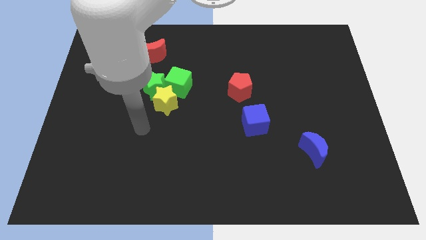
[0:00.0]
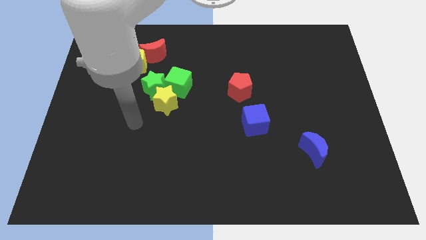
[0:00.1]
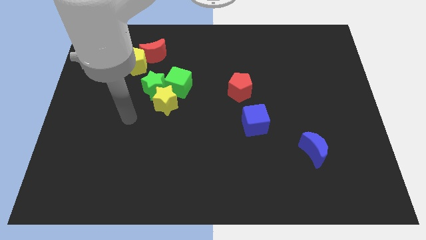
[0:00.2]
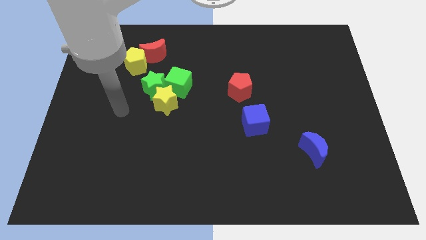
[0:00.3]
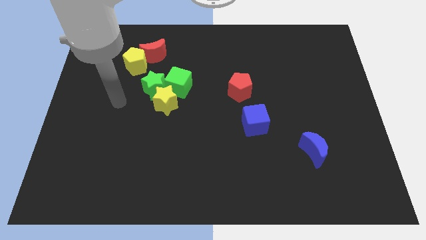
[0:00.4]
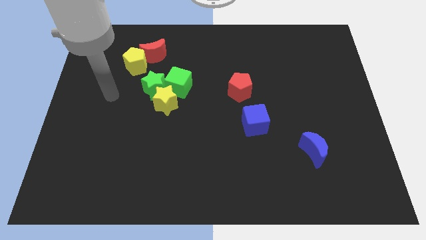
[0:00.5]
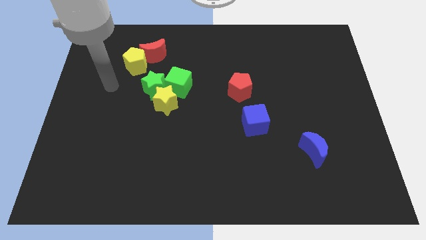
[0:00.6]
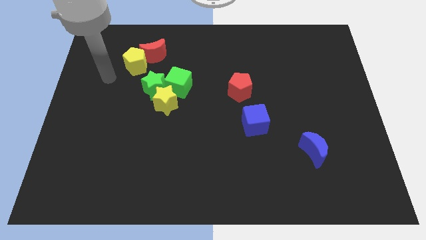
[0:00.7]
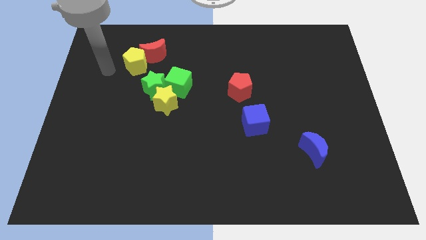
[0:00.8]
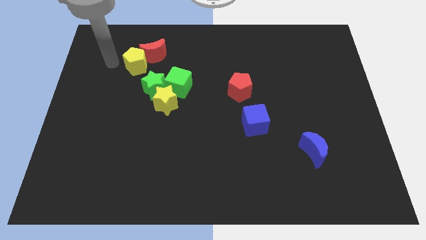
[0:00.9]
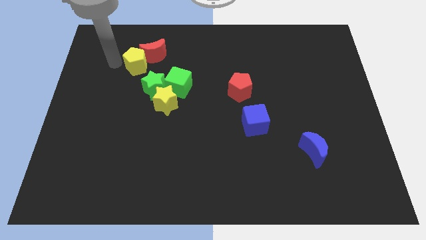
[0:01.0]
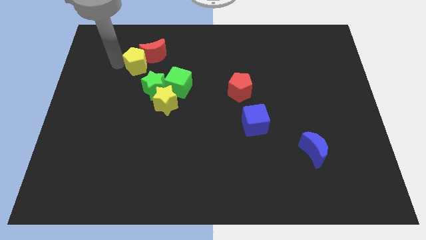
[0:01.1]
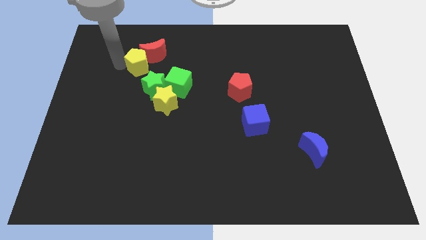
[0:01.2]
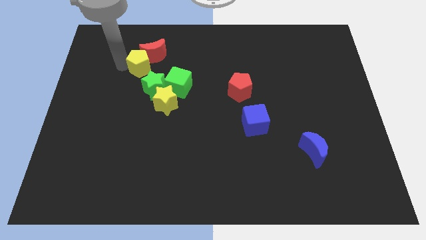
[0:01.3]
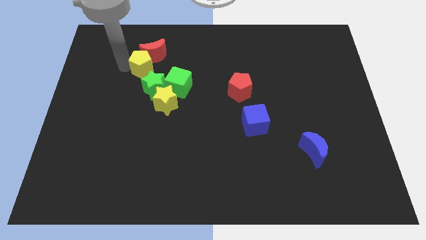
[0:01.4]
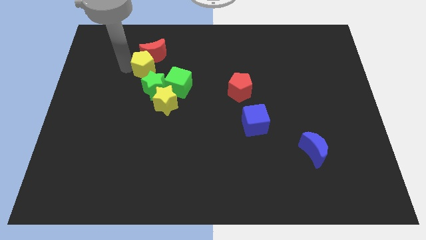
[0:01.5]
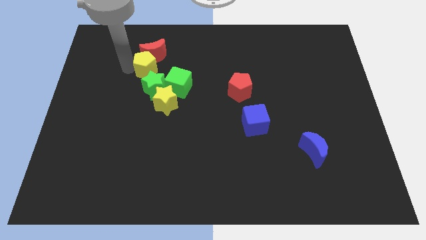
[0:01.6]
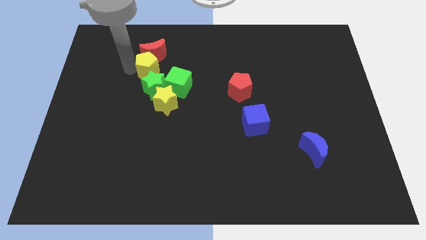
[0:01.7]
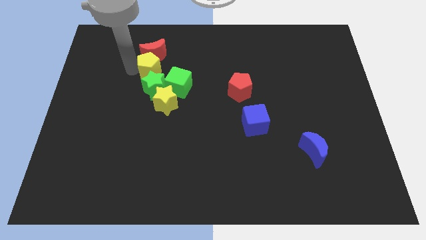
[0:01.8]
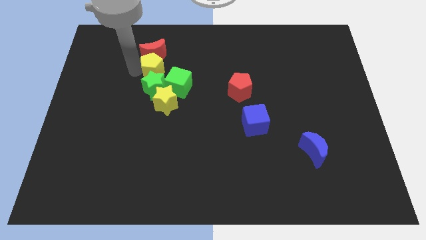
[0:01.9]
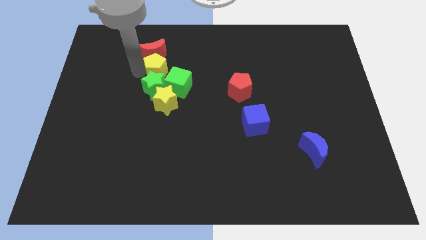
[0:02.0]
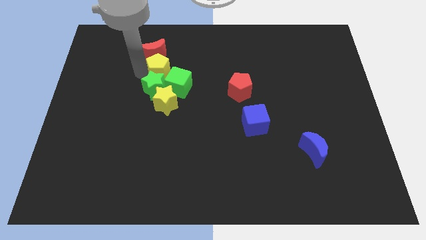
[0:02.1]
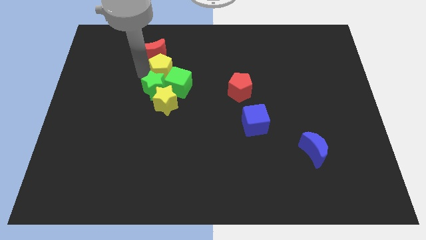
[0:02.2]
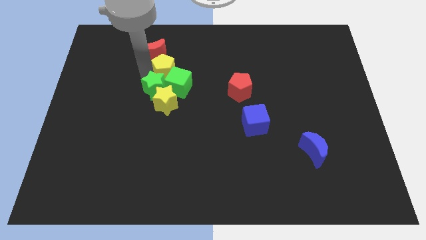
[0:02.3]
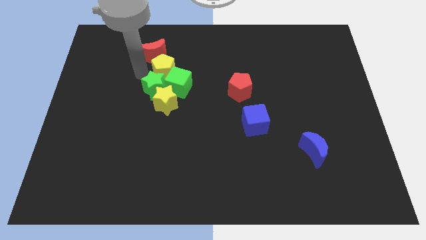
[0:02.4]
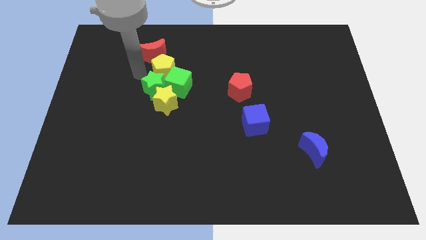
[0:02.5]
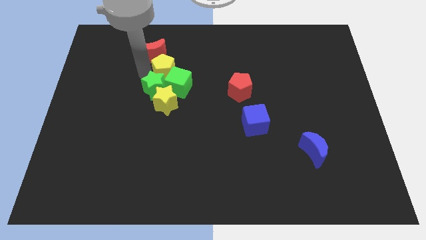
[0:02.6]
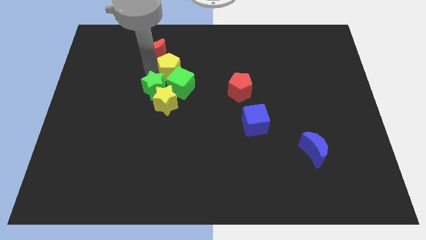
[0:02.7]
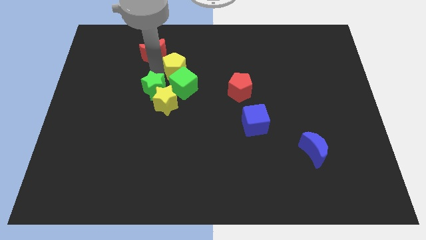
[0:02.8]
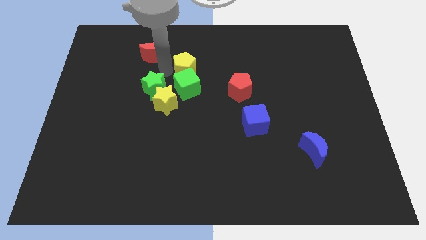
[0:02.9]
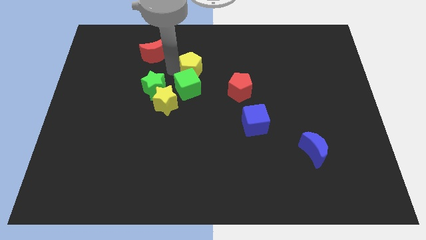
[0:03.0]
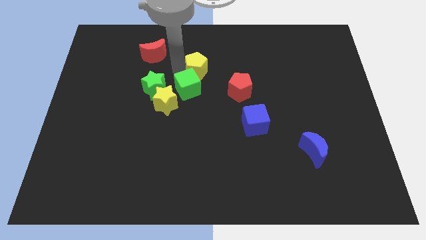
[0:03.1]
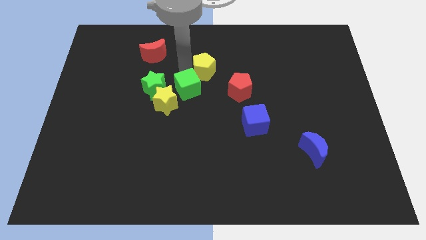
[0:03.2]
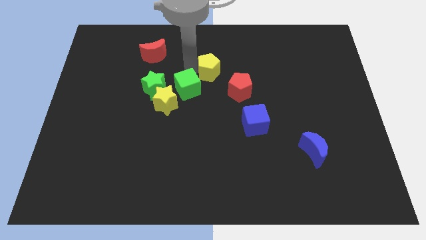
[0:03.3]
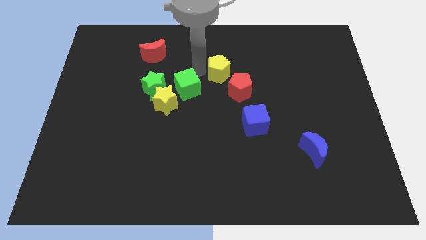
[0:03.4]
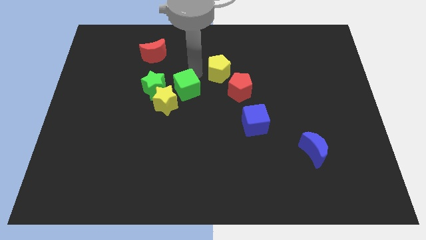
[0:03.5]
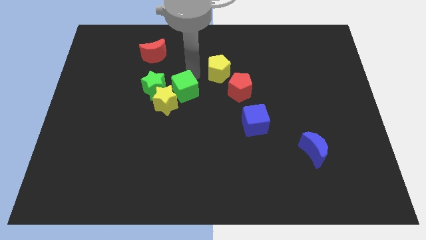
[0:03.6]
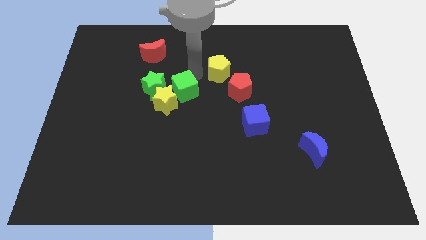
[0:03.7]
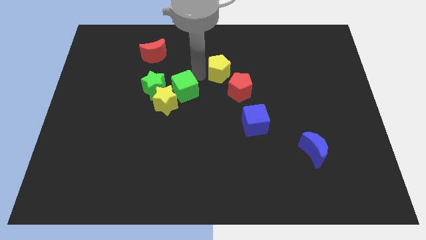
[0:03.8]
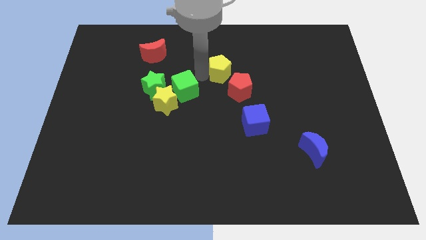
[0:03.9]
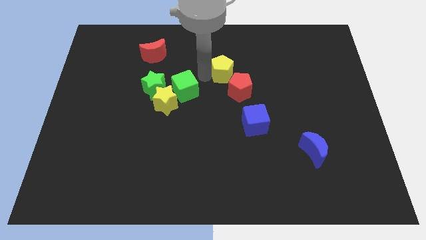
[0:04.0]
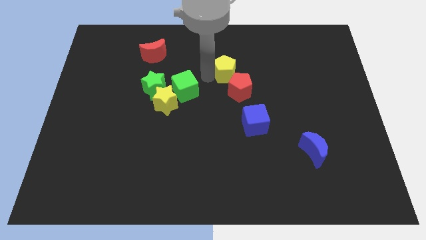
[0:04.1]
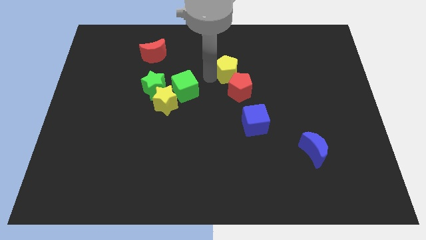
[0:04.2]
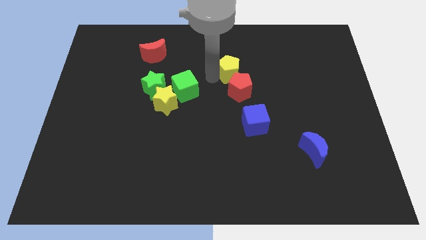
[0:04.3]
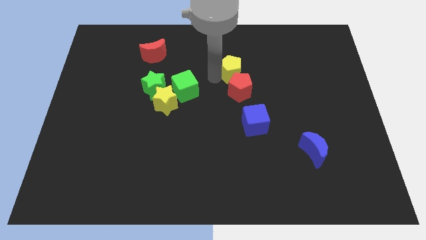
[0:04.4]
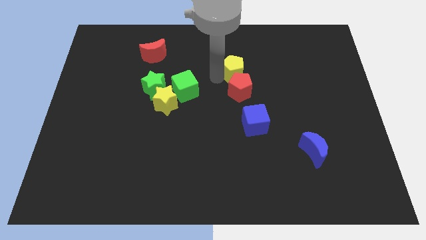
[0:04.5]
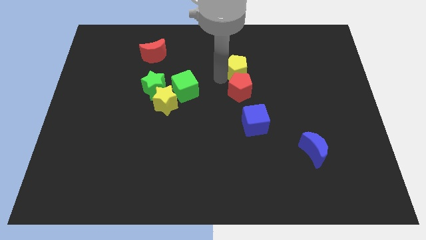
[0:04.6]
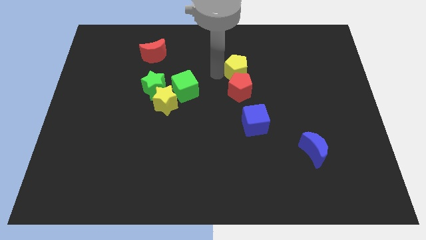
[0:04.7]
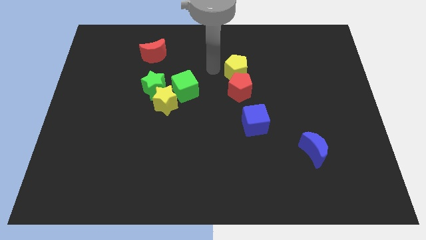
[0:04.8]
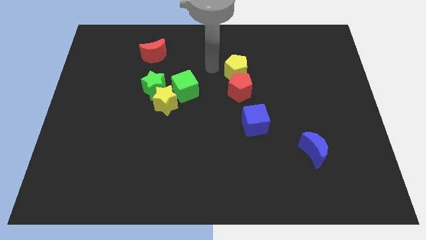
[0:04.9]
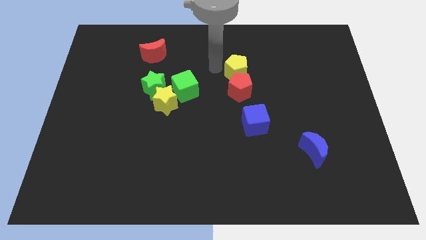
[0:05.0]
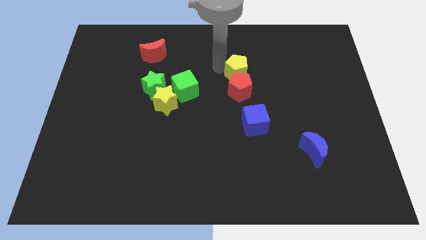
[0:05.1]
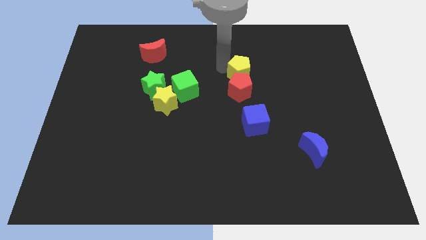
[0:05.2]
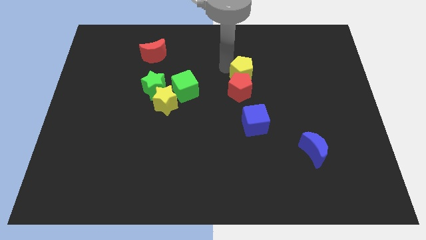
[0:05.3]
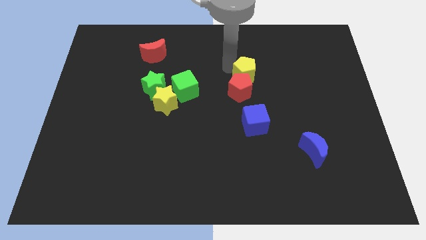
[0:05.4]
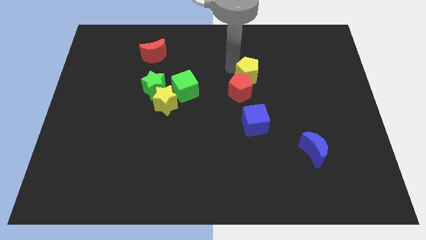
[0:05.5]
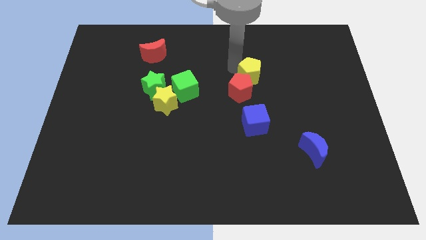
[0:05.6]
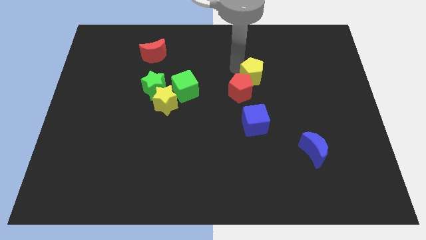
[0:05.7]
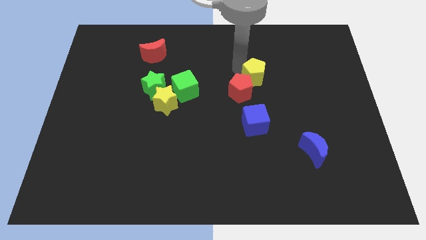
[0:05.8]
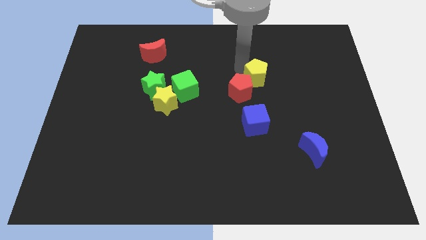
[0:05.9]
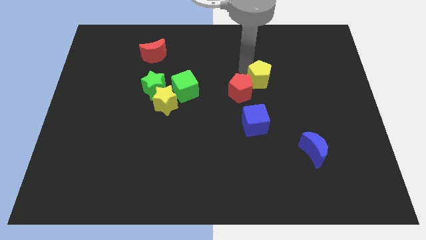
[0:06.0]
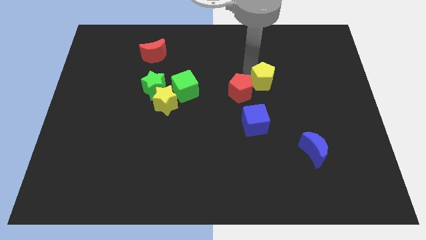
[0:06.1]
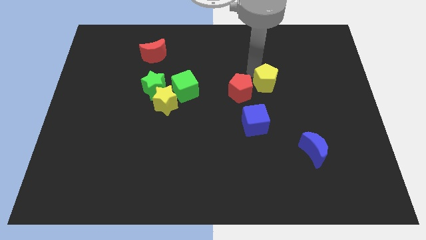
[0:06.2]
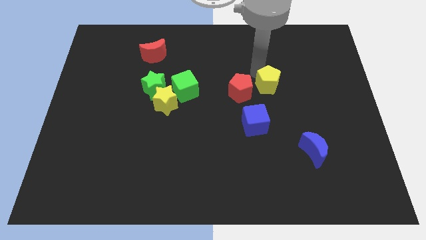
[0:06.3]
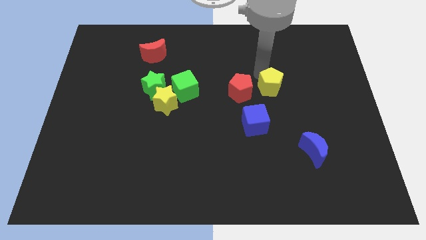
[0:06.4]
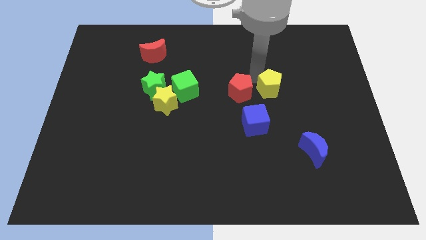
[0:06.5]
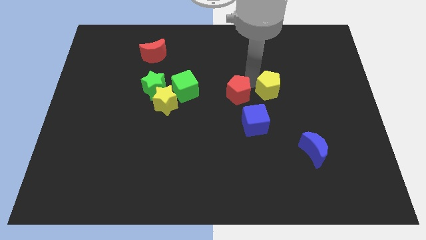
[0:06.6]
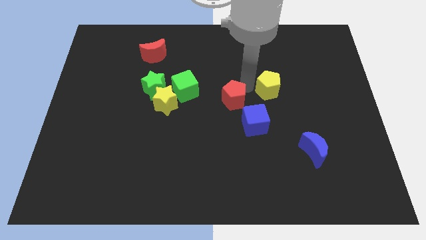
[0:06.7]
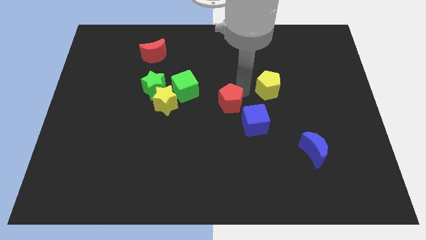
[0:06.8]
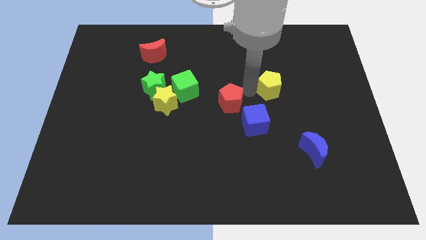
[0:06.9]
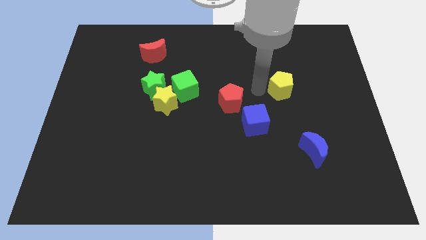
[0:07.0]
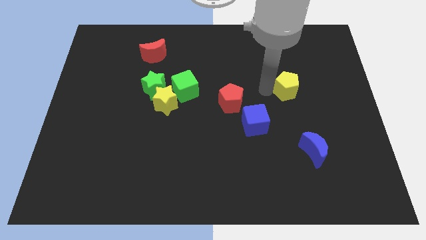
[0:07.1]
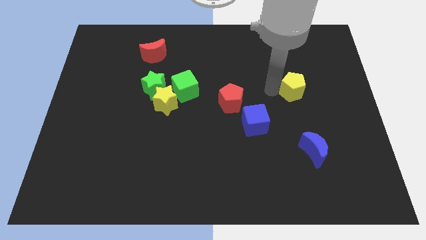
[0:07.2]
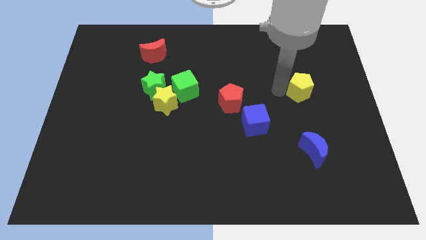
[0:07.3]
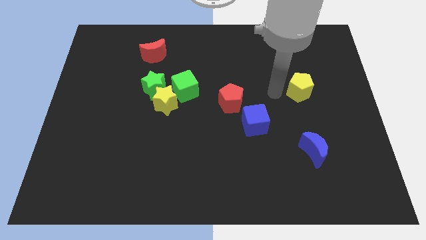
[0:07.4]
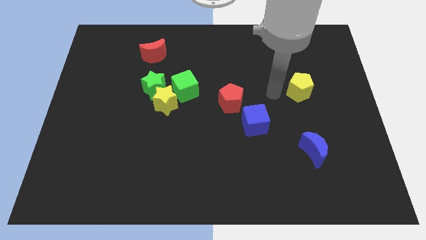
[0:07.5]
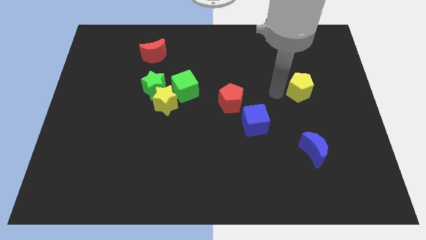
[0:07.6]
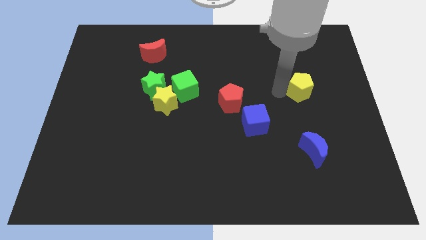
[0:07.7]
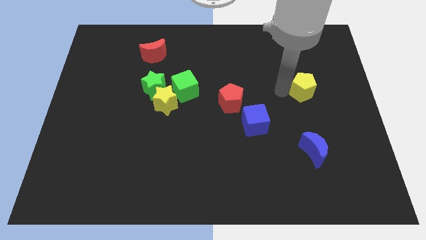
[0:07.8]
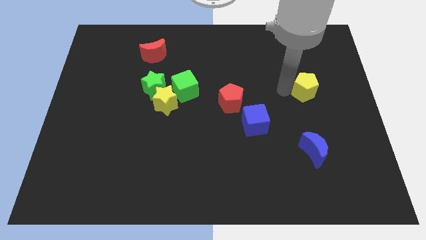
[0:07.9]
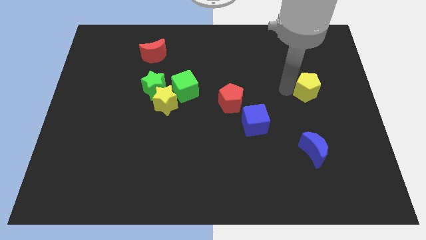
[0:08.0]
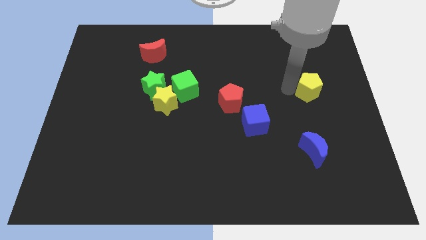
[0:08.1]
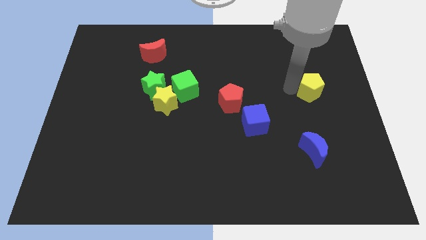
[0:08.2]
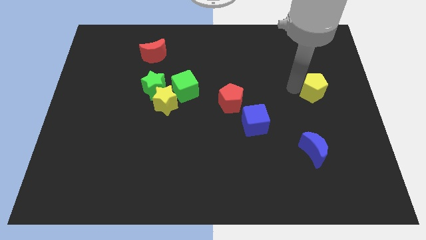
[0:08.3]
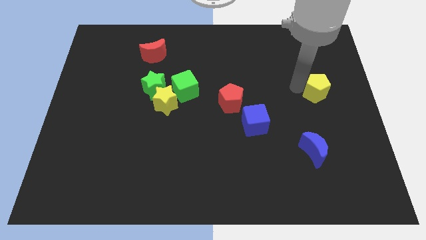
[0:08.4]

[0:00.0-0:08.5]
push the yellow pentagon to the right side of the board
